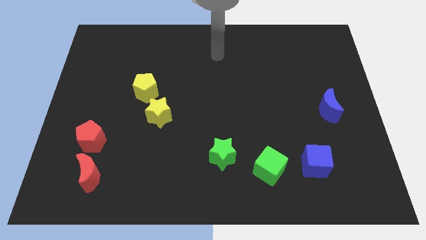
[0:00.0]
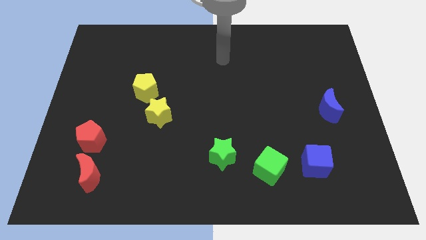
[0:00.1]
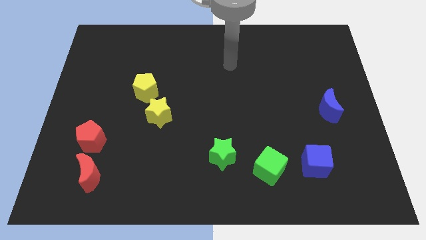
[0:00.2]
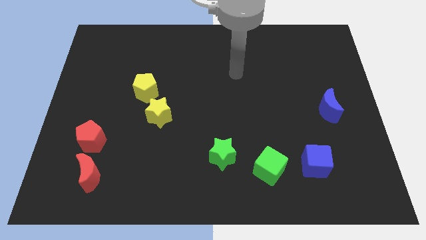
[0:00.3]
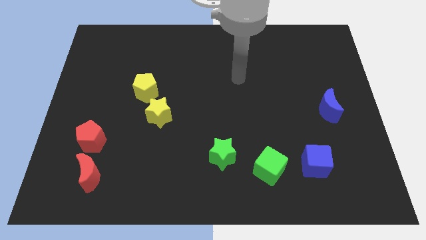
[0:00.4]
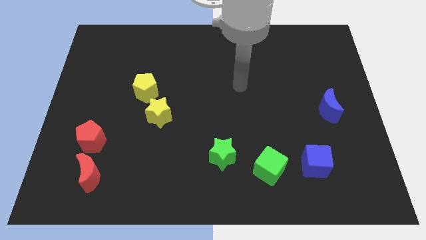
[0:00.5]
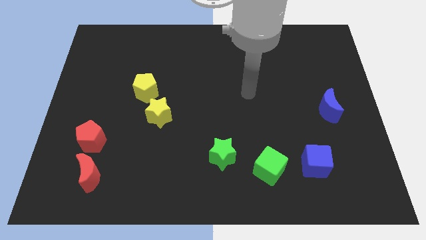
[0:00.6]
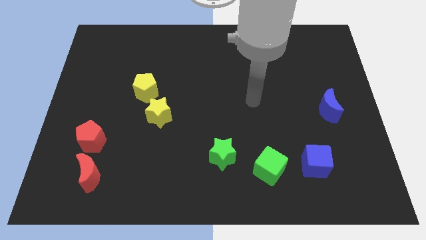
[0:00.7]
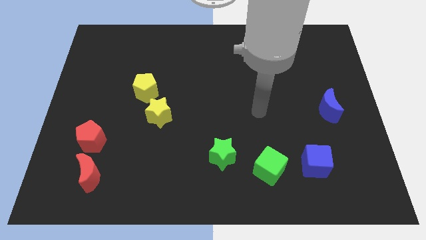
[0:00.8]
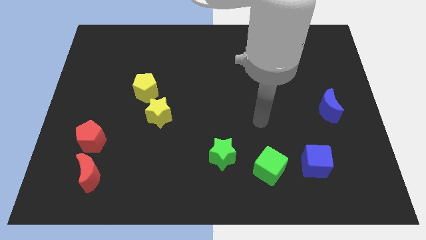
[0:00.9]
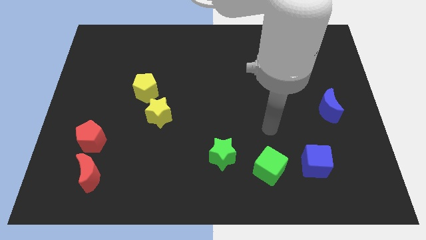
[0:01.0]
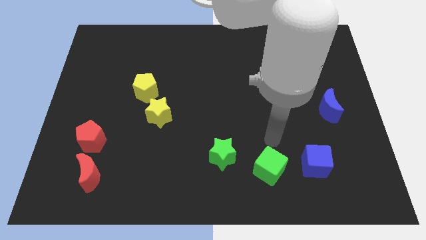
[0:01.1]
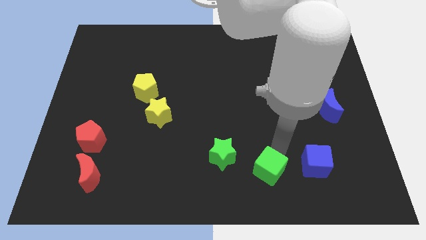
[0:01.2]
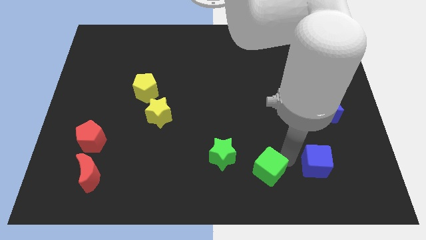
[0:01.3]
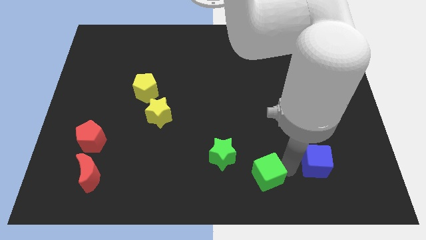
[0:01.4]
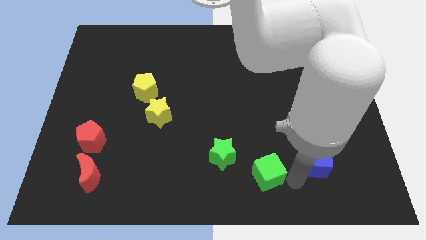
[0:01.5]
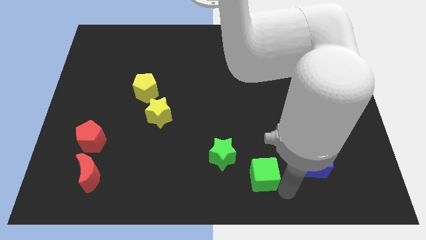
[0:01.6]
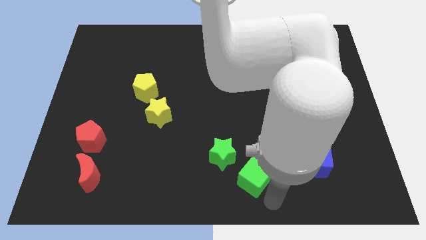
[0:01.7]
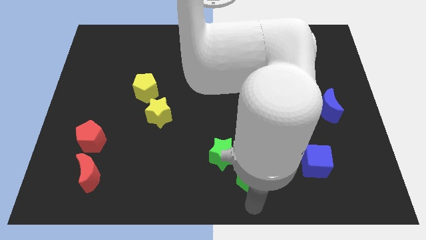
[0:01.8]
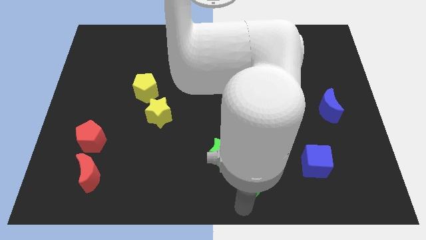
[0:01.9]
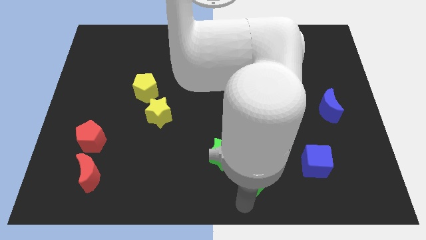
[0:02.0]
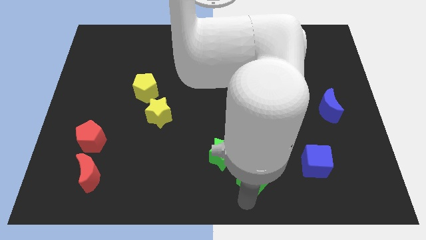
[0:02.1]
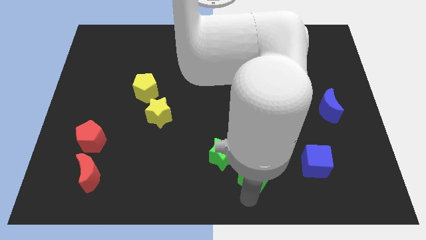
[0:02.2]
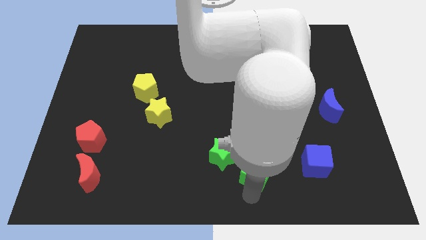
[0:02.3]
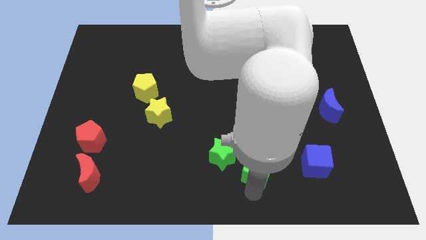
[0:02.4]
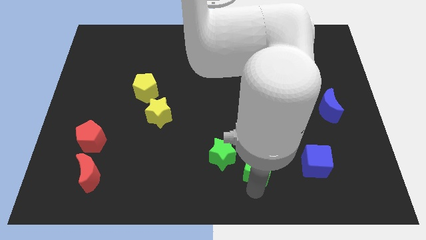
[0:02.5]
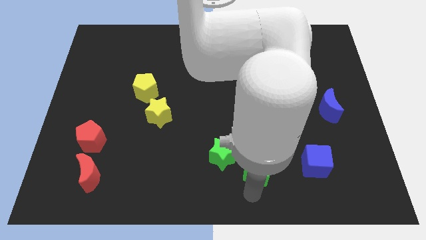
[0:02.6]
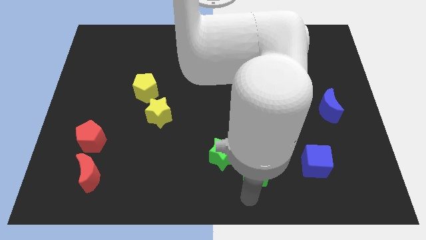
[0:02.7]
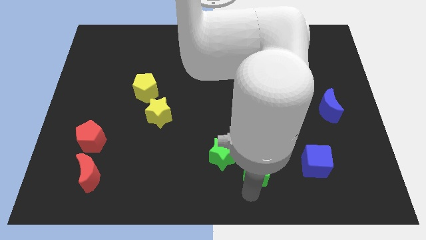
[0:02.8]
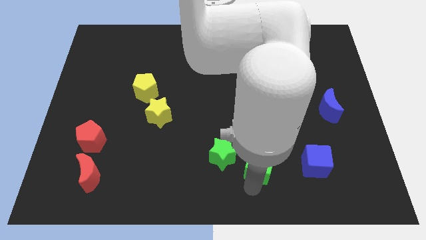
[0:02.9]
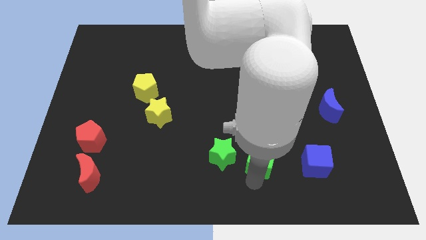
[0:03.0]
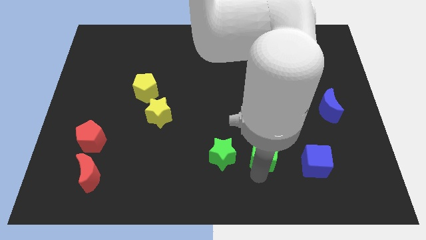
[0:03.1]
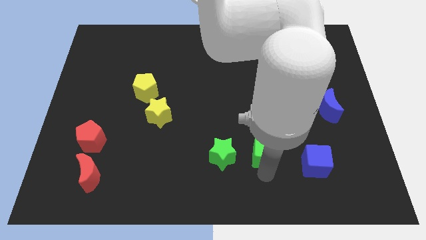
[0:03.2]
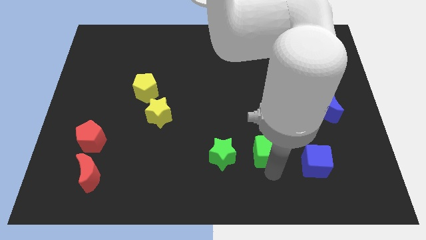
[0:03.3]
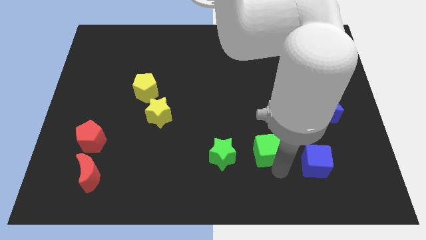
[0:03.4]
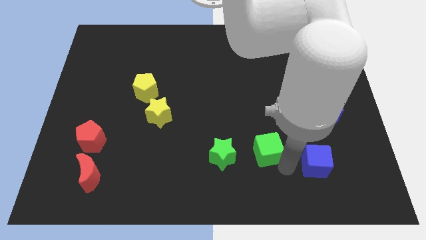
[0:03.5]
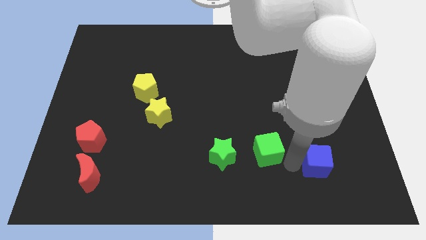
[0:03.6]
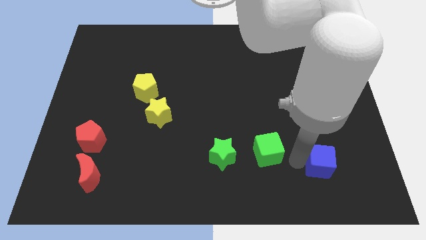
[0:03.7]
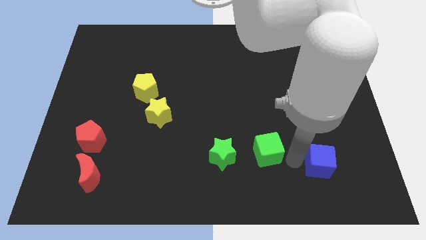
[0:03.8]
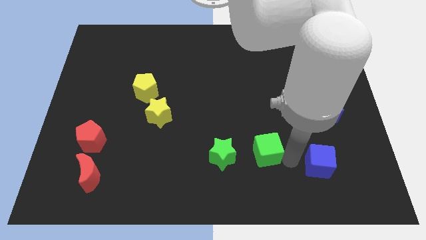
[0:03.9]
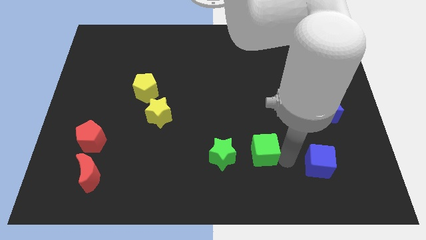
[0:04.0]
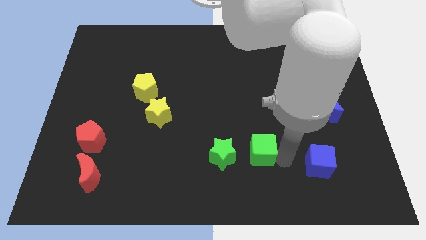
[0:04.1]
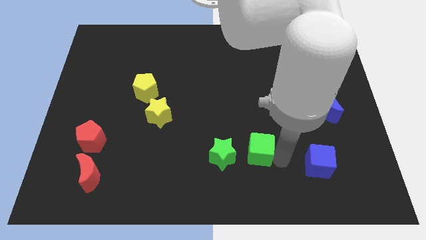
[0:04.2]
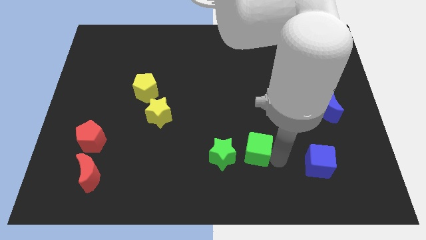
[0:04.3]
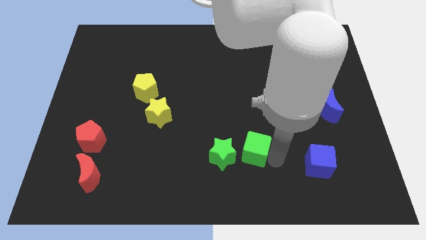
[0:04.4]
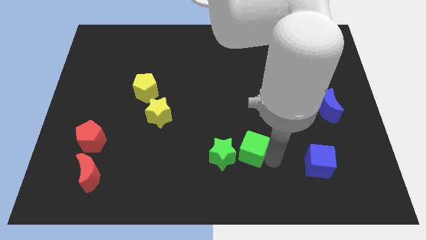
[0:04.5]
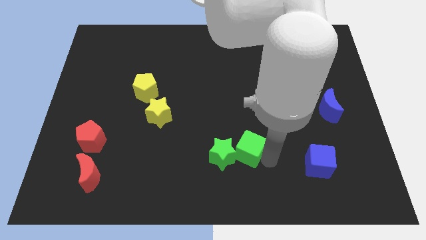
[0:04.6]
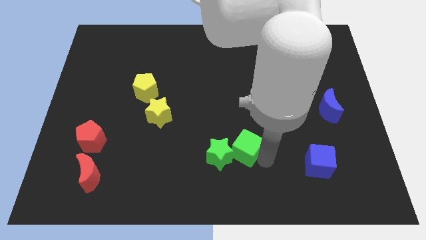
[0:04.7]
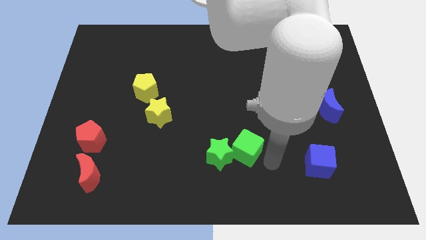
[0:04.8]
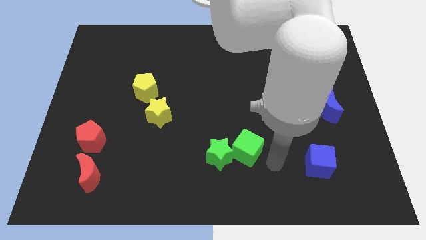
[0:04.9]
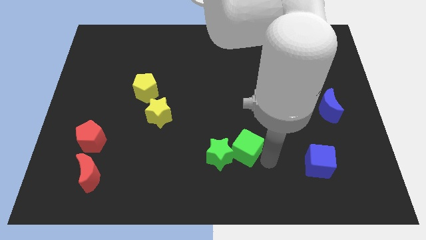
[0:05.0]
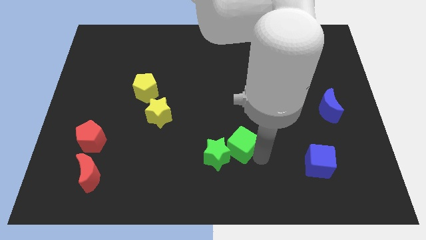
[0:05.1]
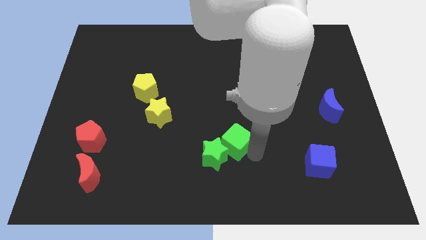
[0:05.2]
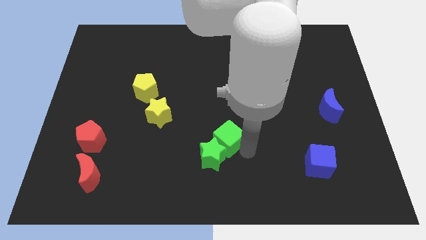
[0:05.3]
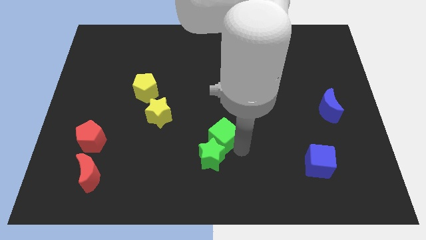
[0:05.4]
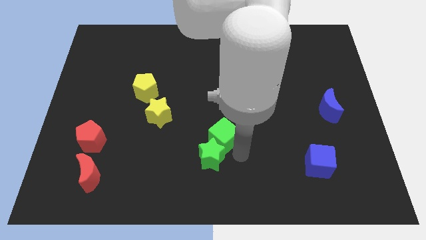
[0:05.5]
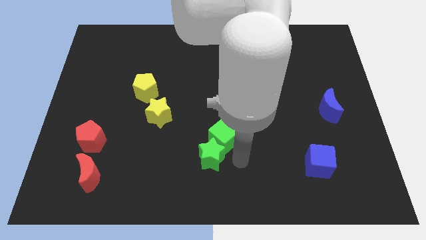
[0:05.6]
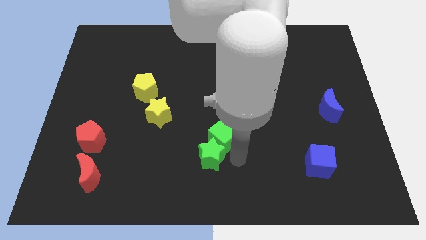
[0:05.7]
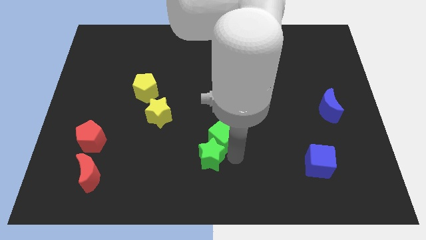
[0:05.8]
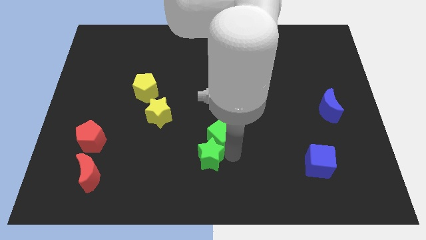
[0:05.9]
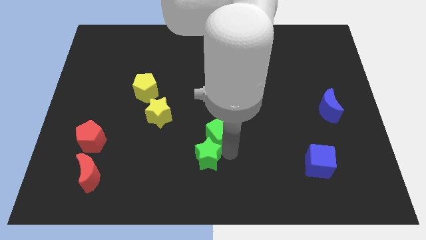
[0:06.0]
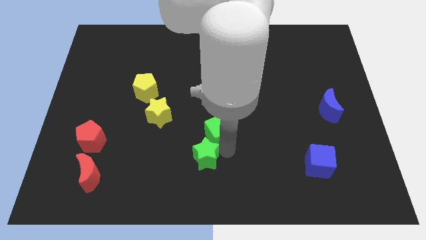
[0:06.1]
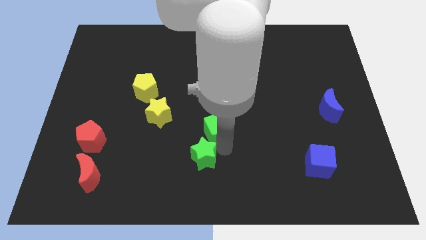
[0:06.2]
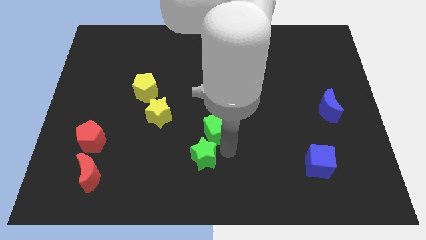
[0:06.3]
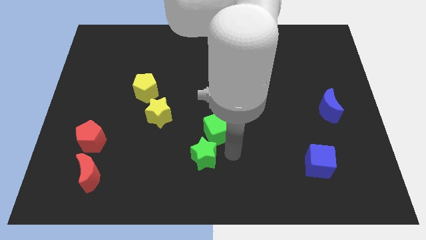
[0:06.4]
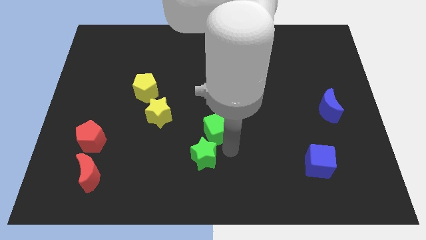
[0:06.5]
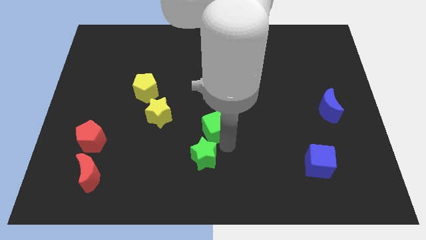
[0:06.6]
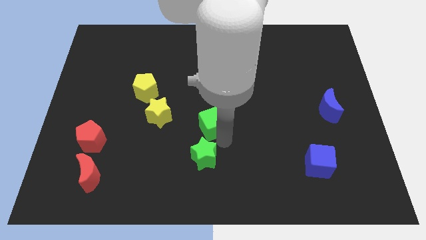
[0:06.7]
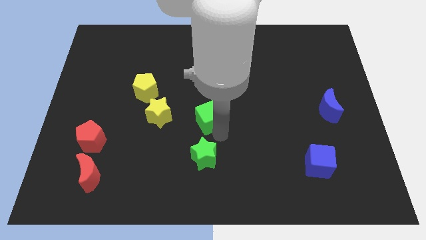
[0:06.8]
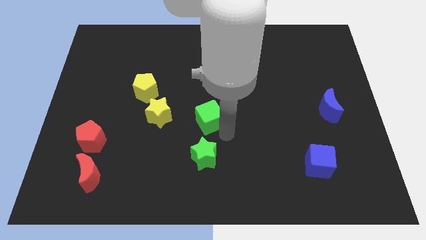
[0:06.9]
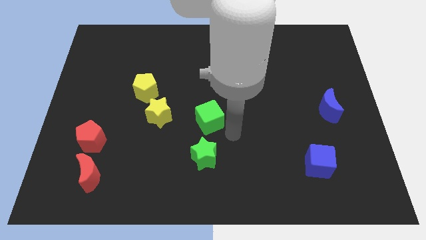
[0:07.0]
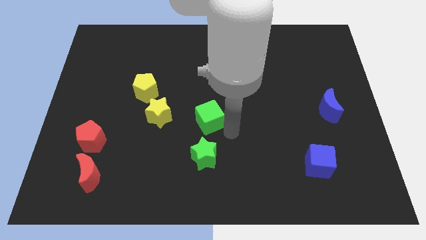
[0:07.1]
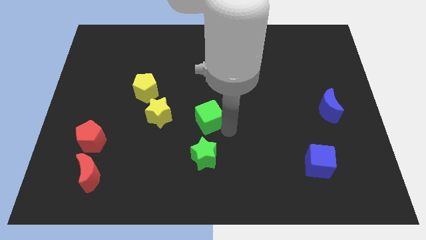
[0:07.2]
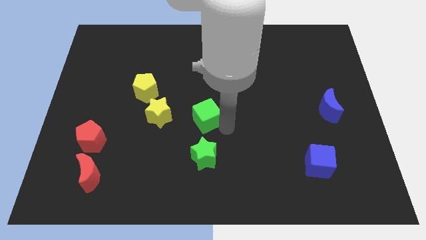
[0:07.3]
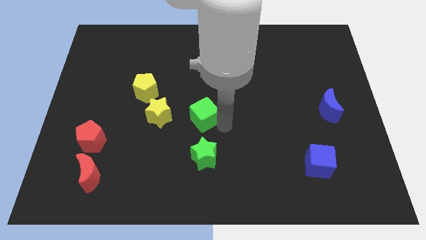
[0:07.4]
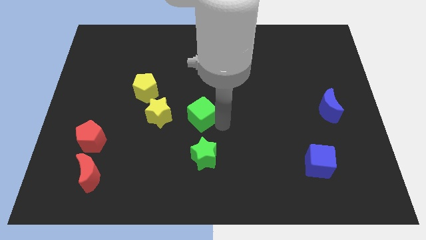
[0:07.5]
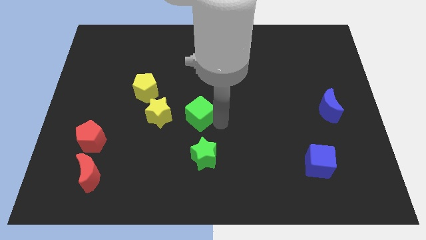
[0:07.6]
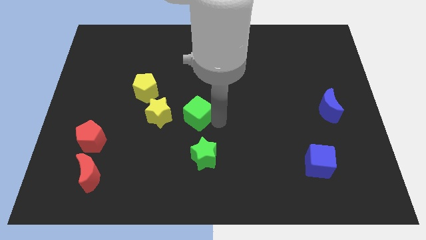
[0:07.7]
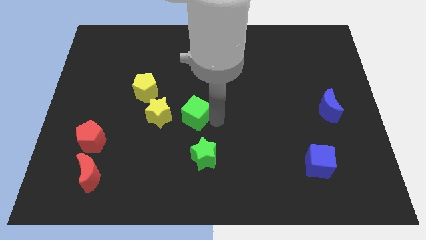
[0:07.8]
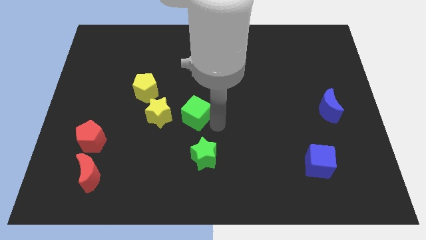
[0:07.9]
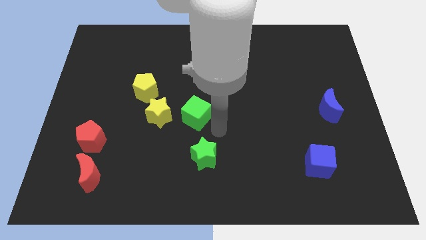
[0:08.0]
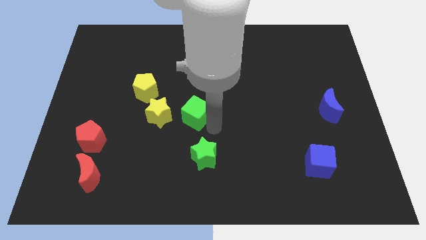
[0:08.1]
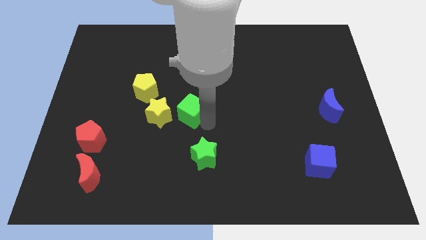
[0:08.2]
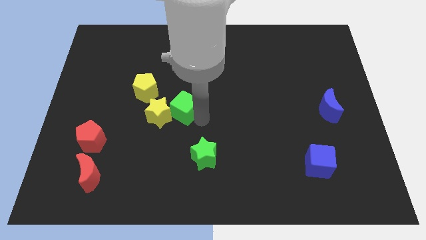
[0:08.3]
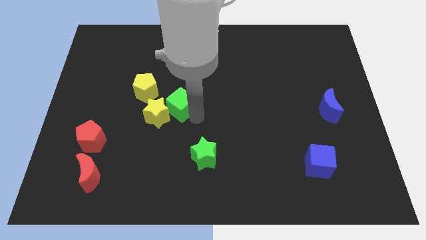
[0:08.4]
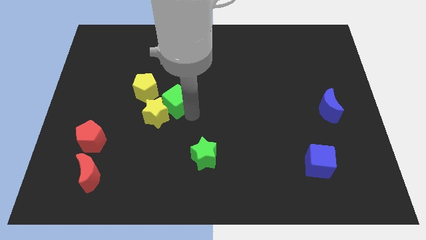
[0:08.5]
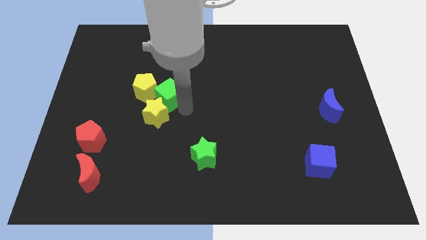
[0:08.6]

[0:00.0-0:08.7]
slide the green cube towards the yellow pentagon
